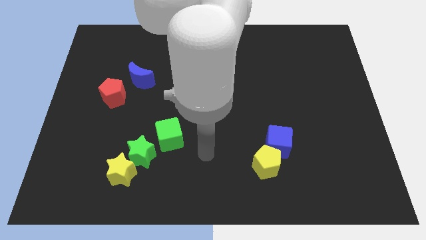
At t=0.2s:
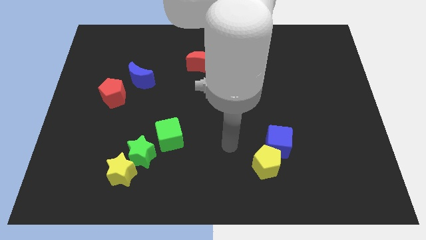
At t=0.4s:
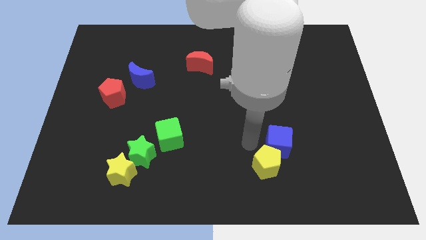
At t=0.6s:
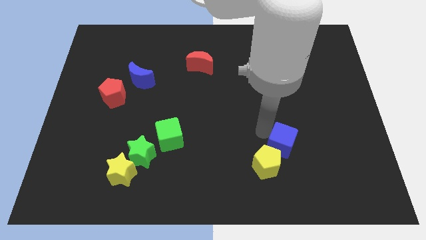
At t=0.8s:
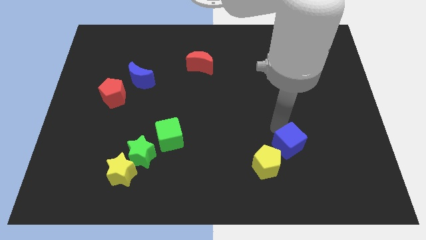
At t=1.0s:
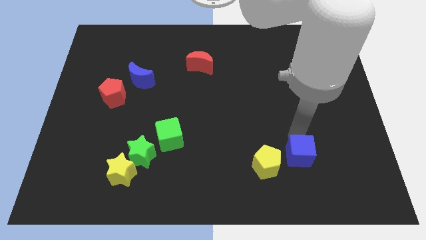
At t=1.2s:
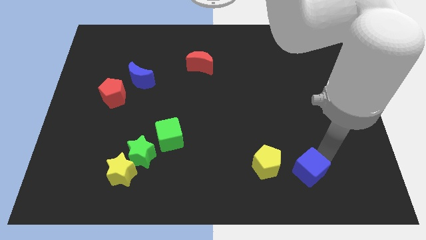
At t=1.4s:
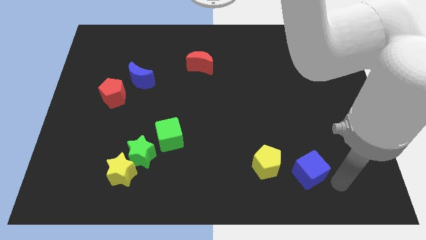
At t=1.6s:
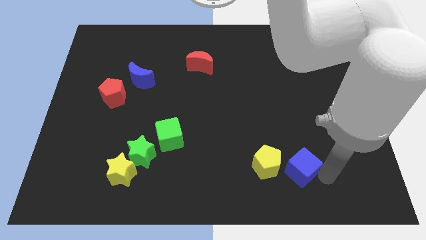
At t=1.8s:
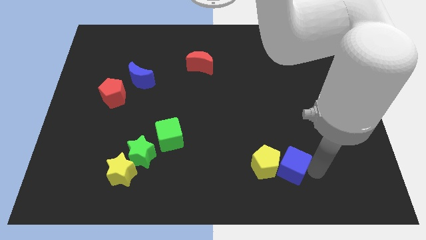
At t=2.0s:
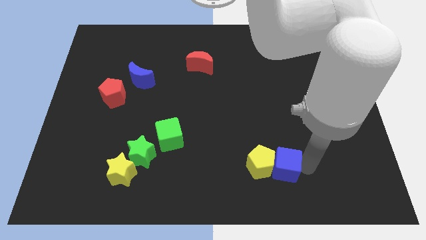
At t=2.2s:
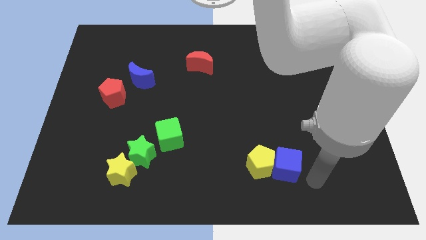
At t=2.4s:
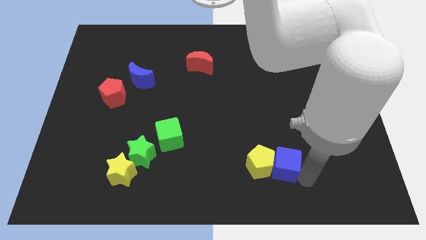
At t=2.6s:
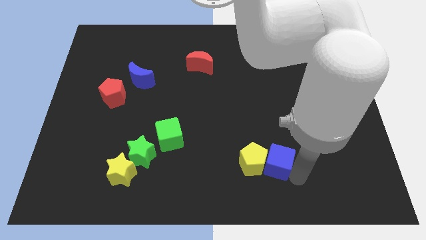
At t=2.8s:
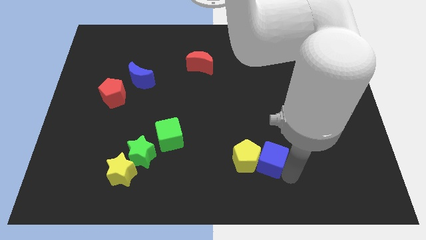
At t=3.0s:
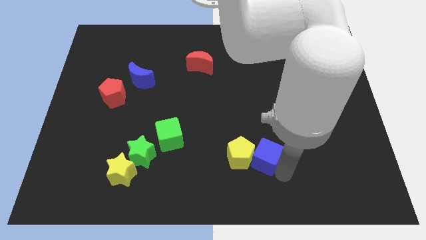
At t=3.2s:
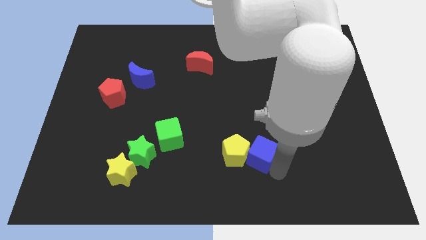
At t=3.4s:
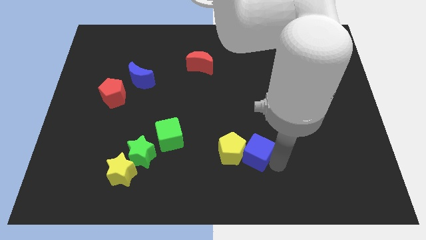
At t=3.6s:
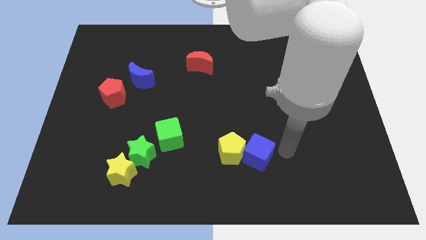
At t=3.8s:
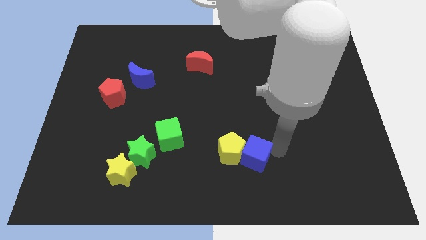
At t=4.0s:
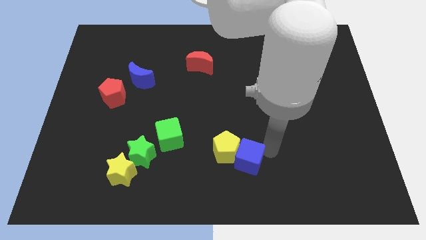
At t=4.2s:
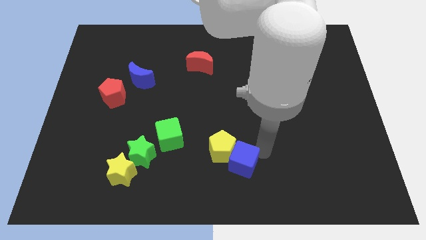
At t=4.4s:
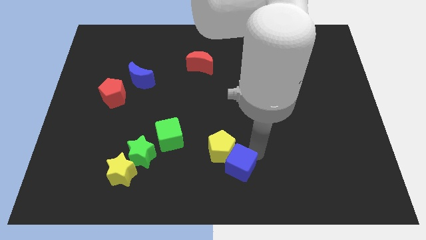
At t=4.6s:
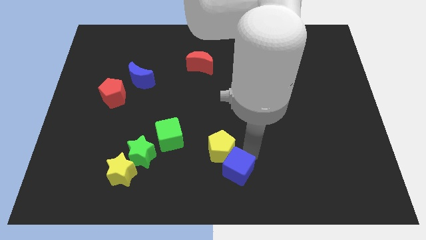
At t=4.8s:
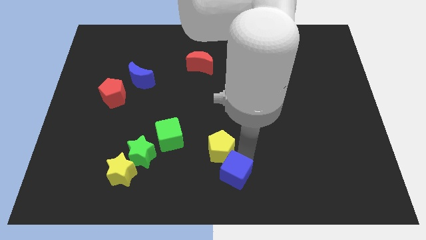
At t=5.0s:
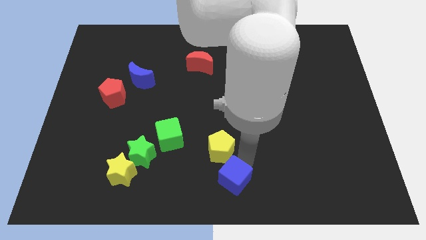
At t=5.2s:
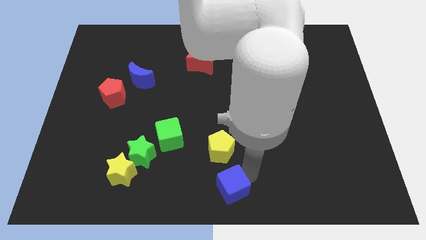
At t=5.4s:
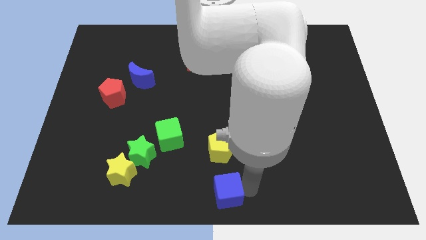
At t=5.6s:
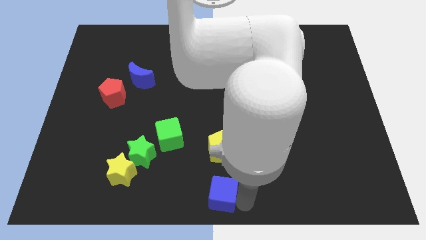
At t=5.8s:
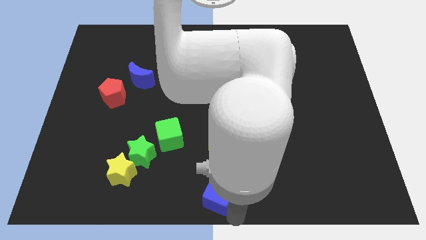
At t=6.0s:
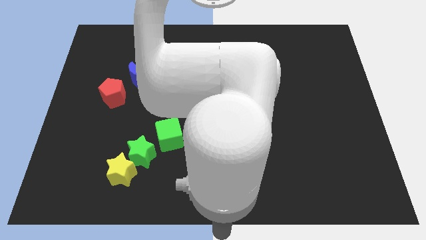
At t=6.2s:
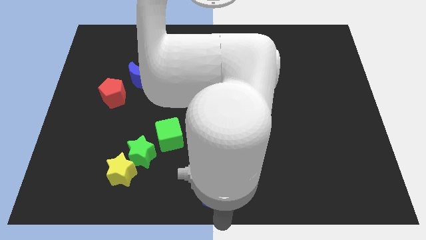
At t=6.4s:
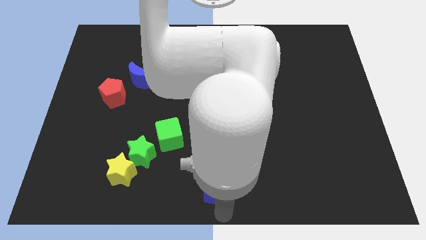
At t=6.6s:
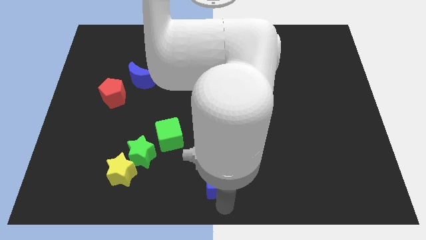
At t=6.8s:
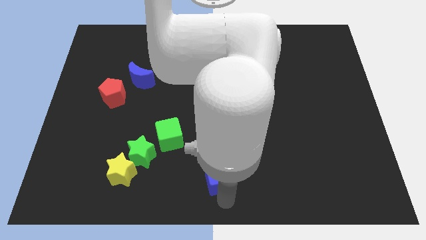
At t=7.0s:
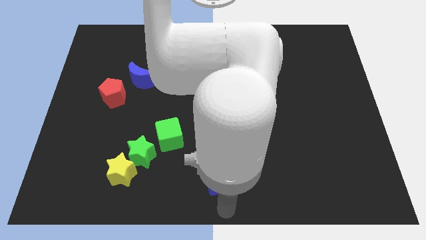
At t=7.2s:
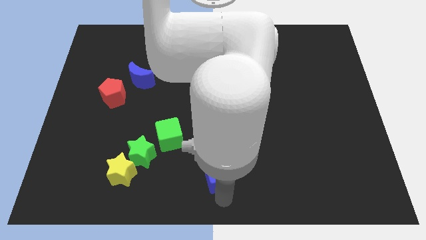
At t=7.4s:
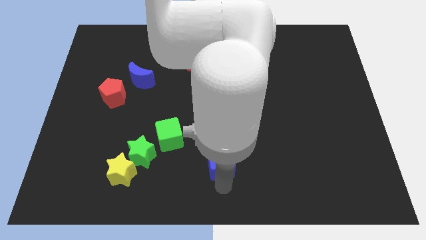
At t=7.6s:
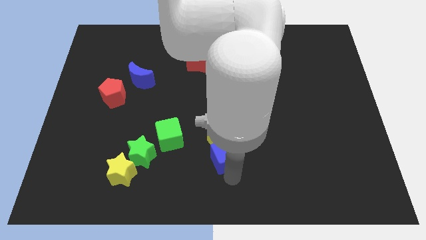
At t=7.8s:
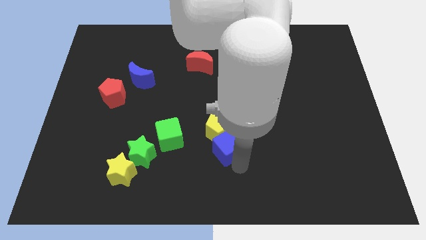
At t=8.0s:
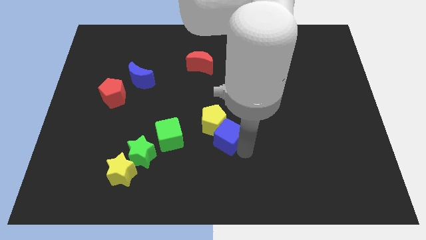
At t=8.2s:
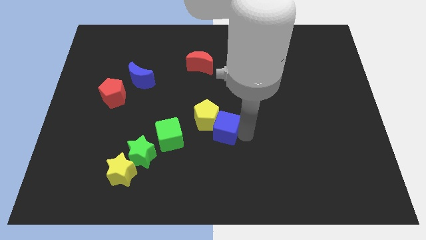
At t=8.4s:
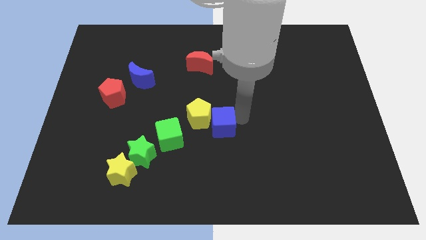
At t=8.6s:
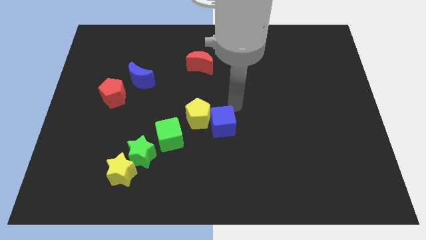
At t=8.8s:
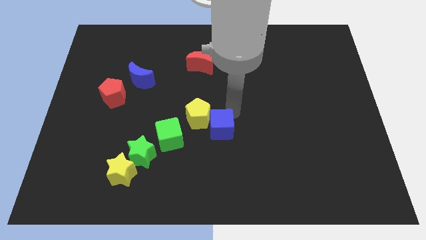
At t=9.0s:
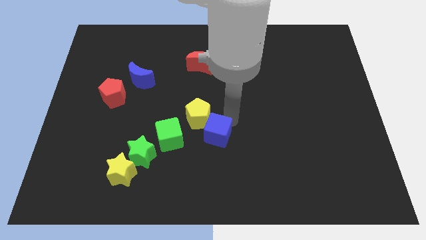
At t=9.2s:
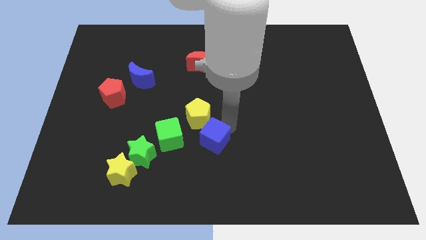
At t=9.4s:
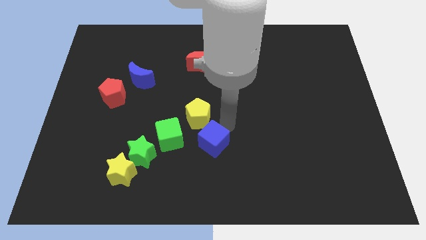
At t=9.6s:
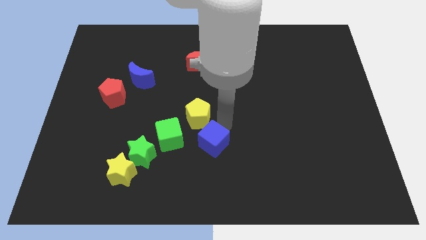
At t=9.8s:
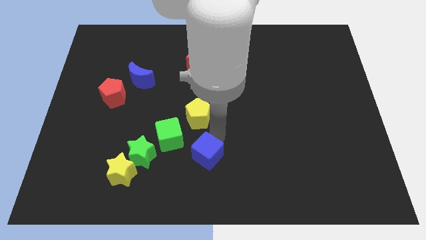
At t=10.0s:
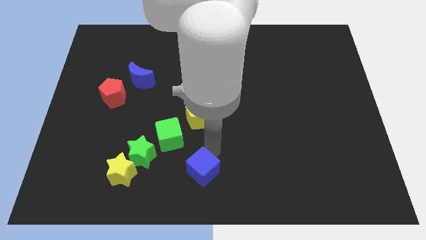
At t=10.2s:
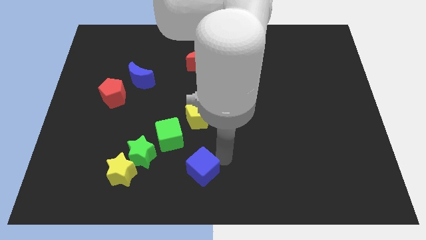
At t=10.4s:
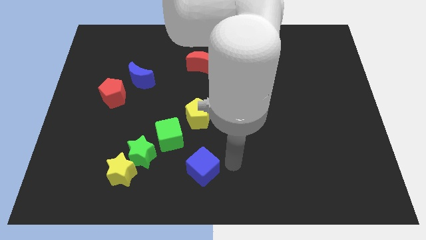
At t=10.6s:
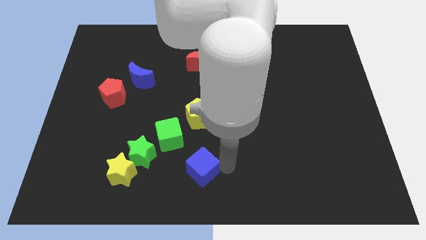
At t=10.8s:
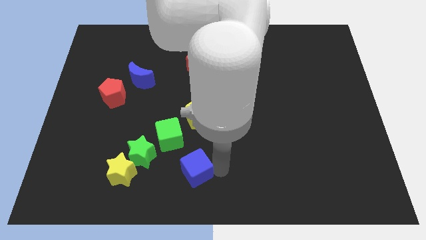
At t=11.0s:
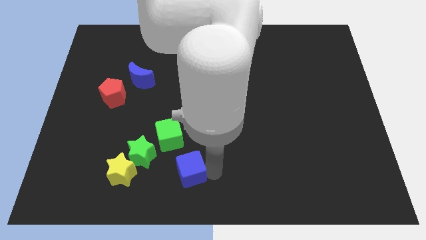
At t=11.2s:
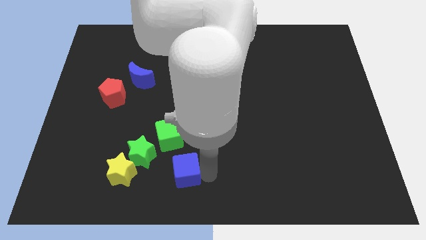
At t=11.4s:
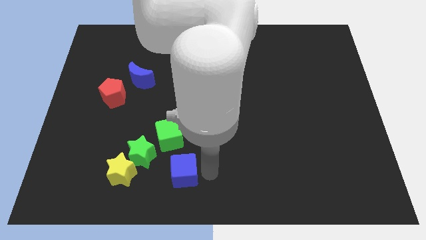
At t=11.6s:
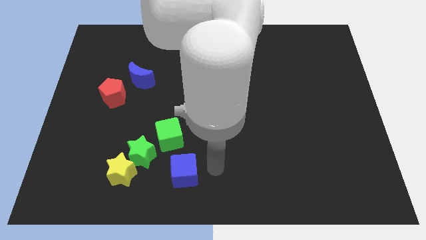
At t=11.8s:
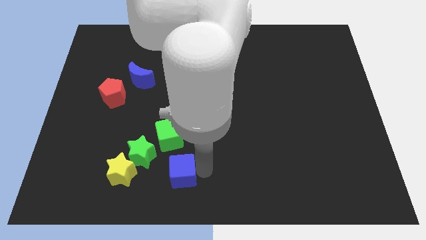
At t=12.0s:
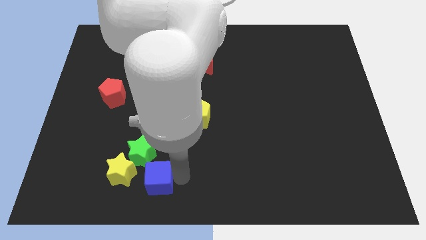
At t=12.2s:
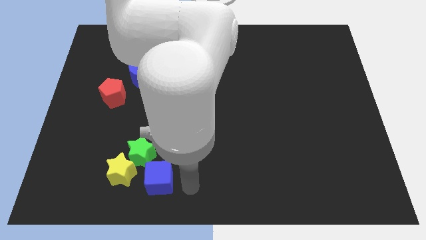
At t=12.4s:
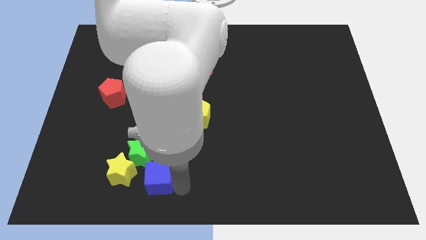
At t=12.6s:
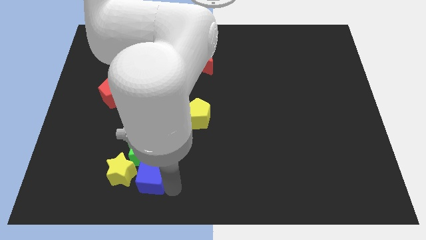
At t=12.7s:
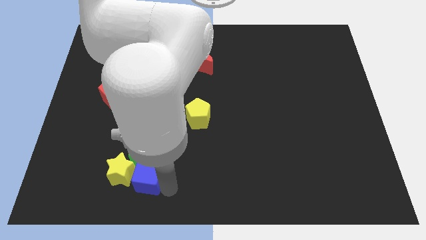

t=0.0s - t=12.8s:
slide the blue cube to the yellow star

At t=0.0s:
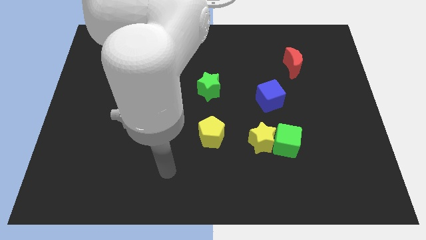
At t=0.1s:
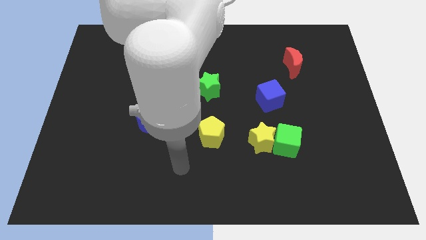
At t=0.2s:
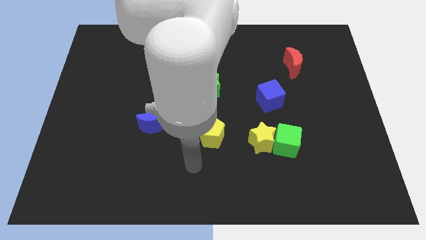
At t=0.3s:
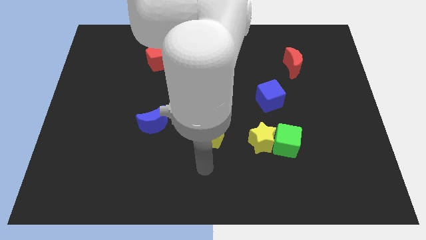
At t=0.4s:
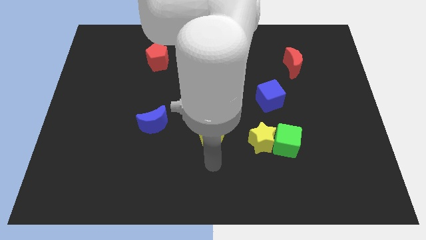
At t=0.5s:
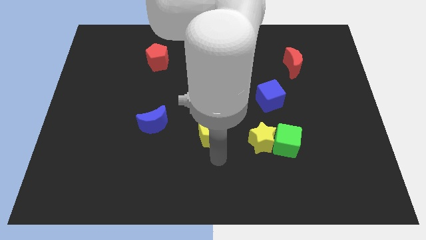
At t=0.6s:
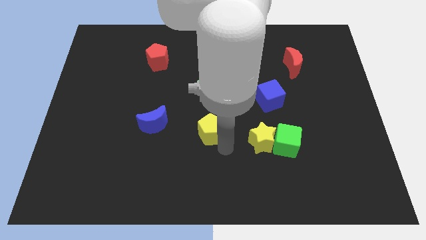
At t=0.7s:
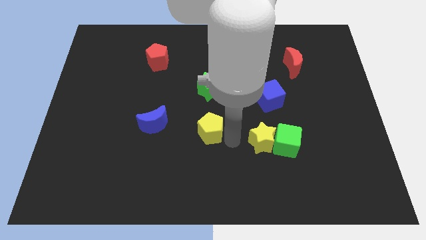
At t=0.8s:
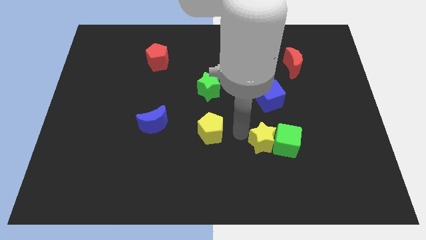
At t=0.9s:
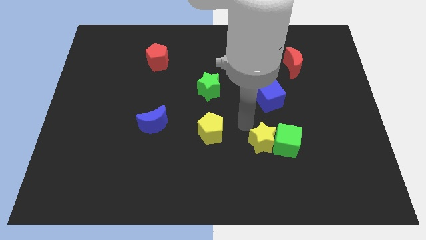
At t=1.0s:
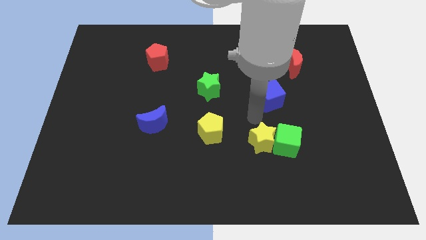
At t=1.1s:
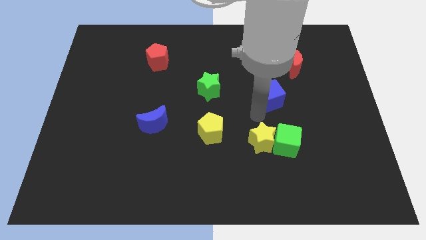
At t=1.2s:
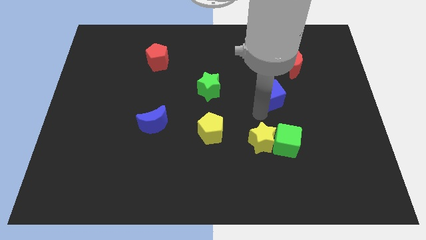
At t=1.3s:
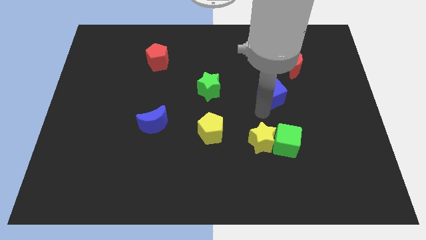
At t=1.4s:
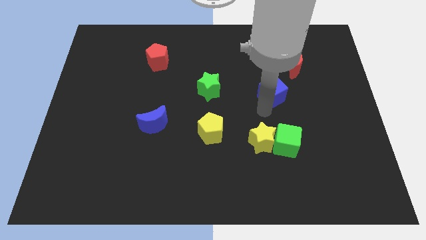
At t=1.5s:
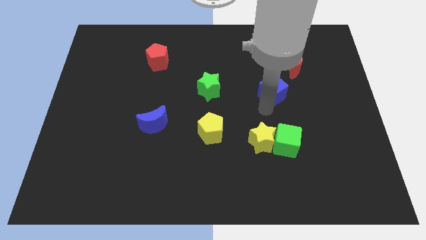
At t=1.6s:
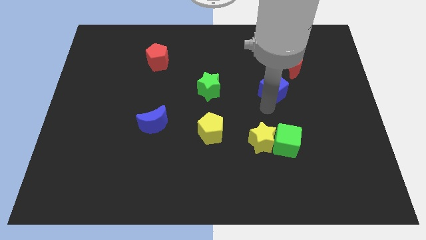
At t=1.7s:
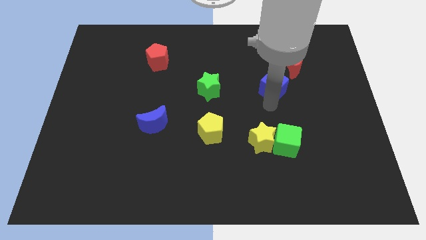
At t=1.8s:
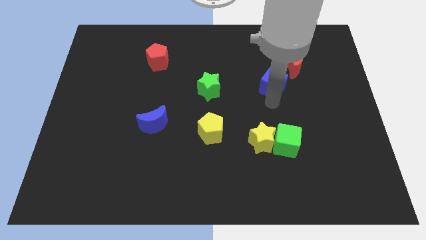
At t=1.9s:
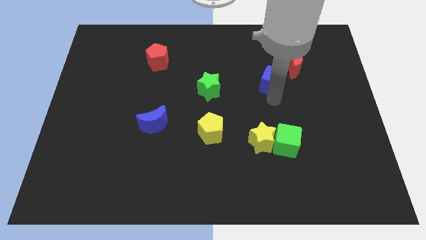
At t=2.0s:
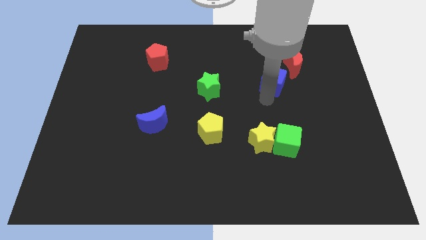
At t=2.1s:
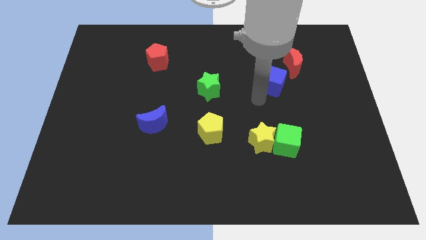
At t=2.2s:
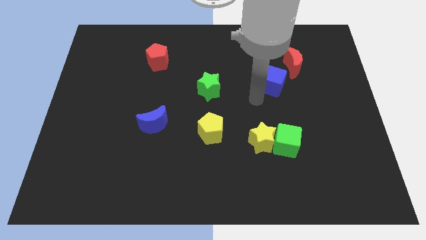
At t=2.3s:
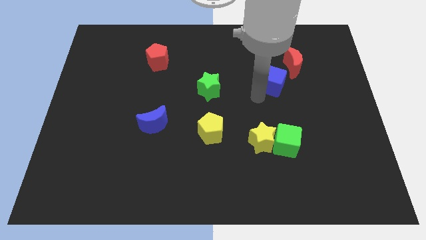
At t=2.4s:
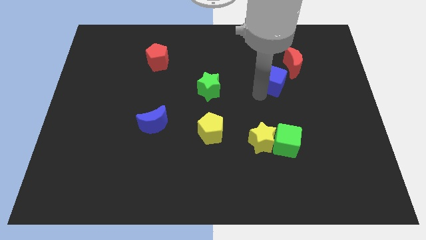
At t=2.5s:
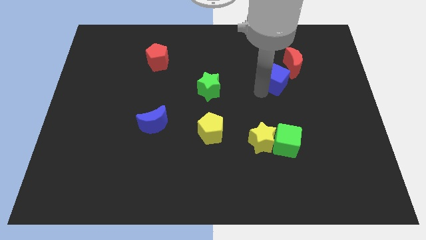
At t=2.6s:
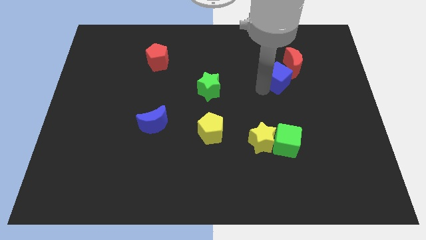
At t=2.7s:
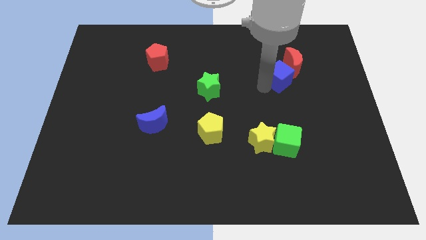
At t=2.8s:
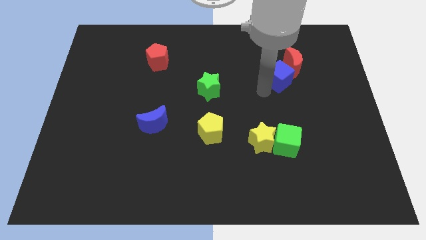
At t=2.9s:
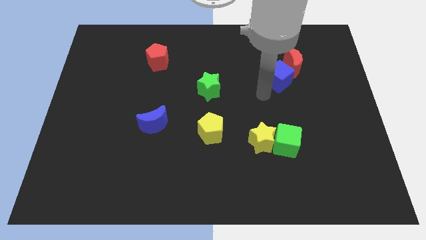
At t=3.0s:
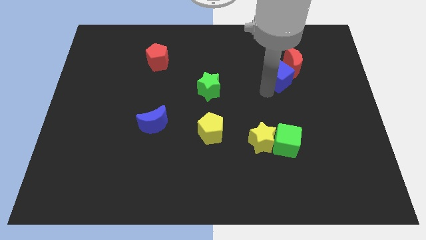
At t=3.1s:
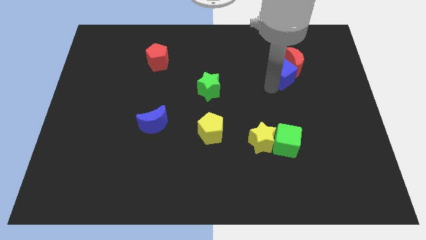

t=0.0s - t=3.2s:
push the blue cube to the red moon
